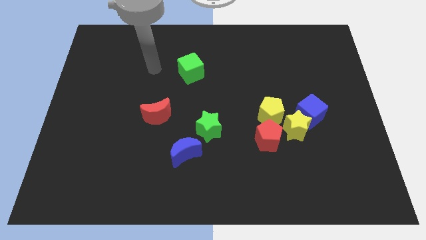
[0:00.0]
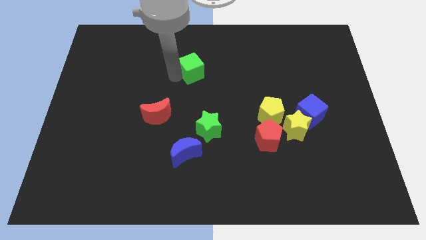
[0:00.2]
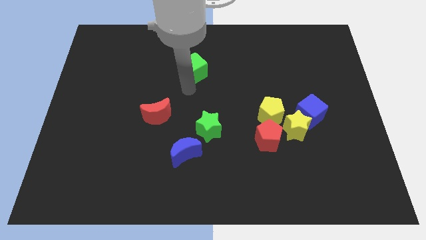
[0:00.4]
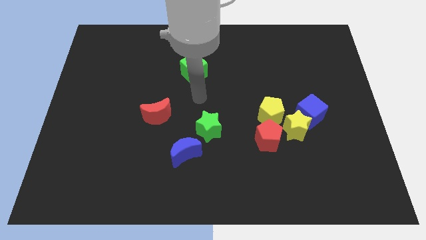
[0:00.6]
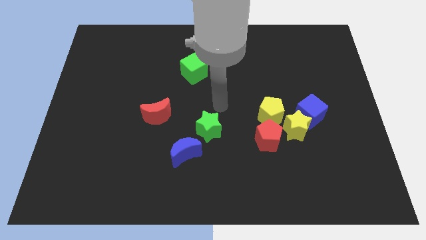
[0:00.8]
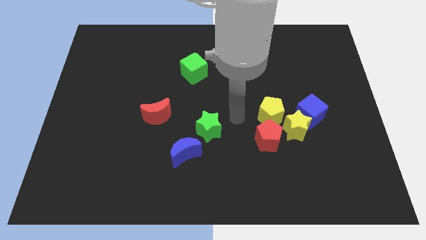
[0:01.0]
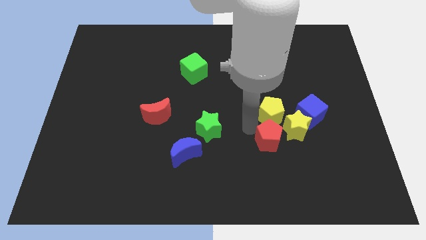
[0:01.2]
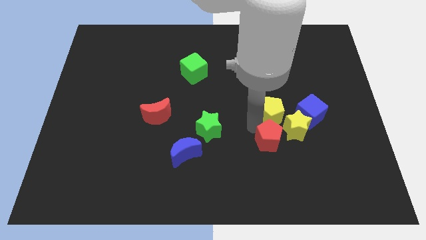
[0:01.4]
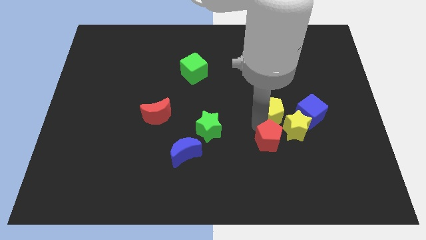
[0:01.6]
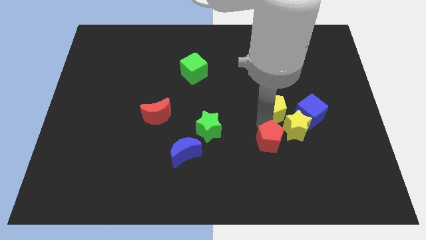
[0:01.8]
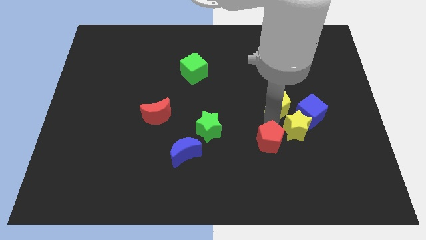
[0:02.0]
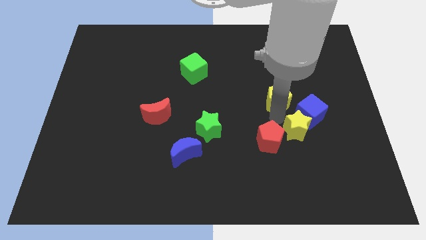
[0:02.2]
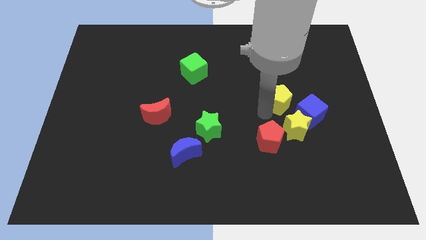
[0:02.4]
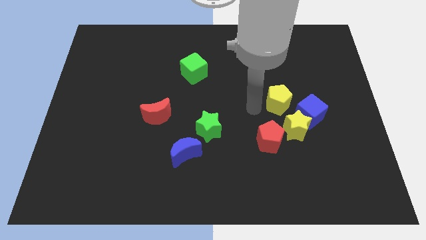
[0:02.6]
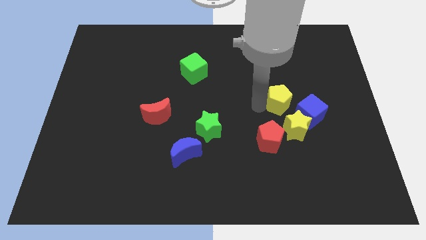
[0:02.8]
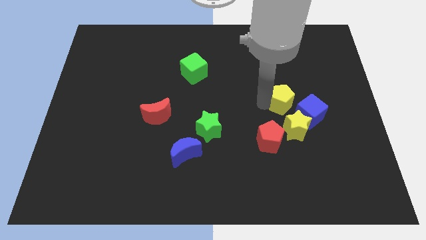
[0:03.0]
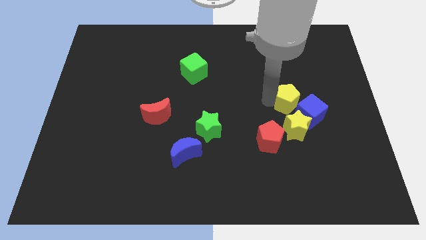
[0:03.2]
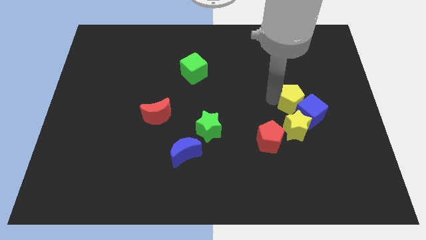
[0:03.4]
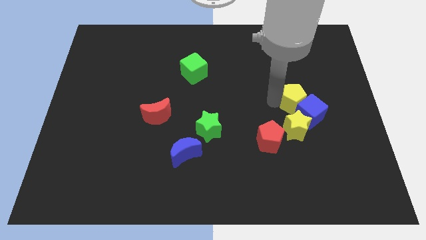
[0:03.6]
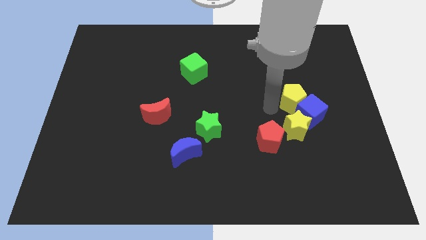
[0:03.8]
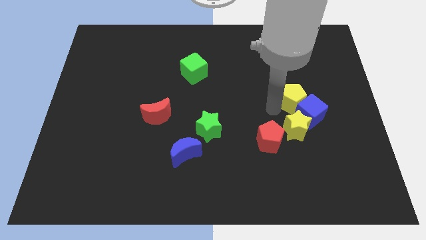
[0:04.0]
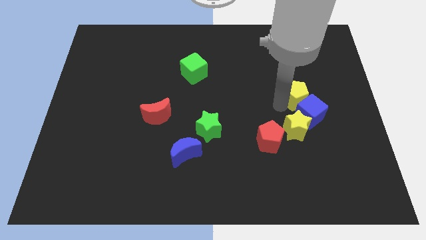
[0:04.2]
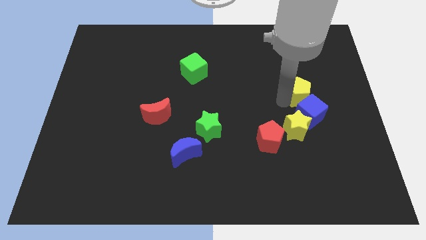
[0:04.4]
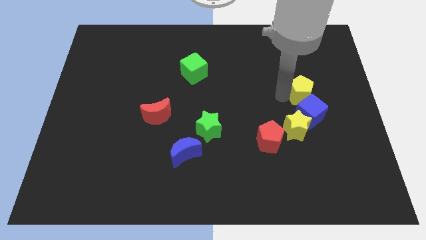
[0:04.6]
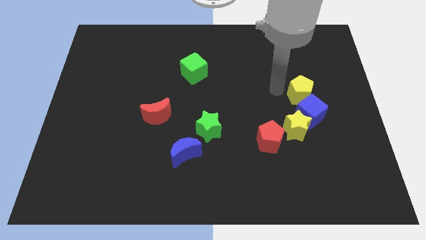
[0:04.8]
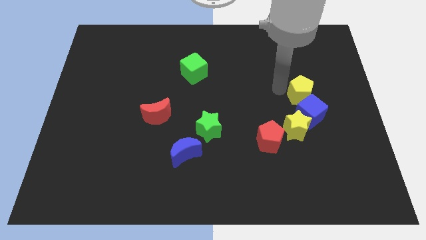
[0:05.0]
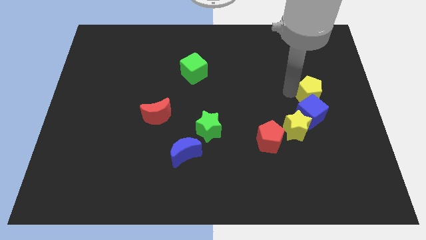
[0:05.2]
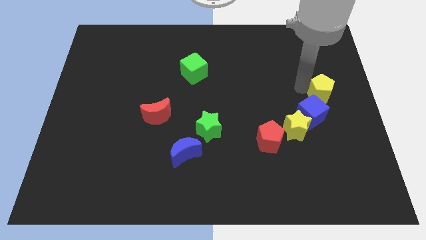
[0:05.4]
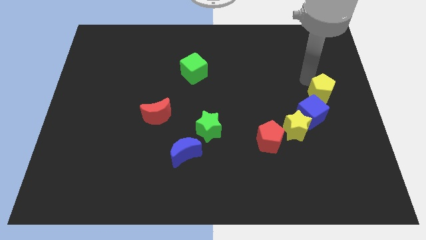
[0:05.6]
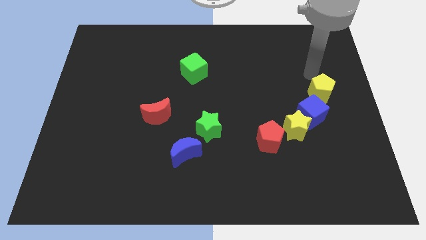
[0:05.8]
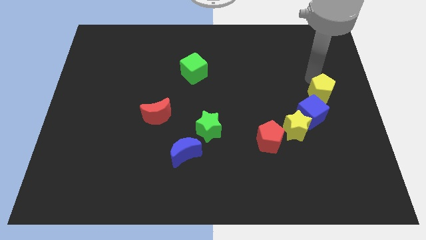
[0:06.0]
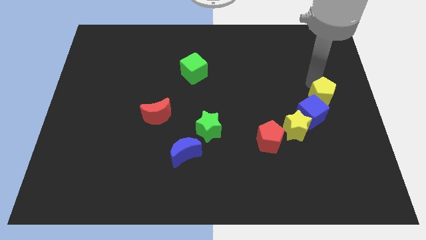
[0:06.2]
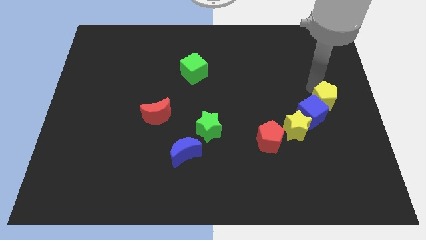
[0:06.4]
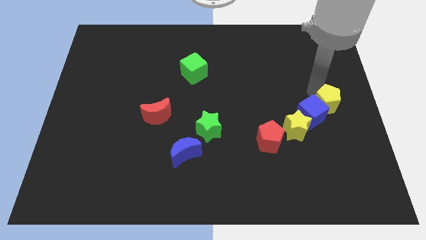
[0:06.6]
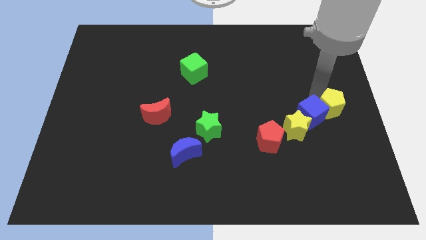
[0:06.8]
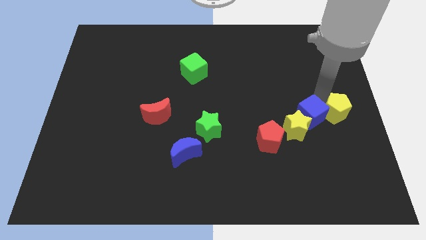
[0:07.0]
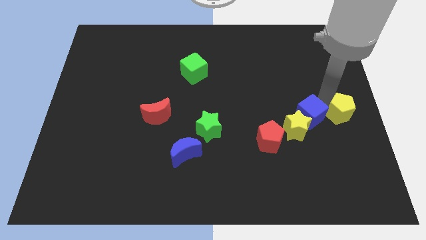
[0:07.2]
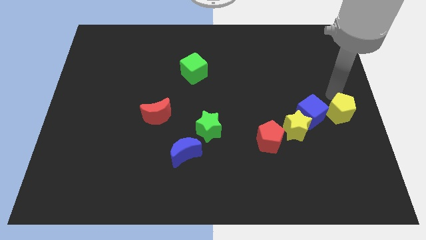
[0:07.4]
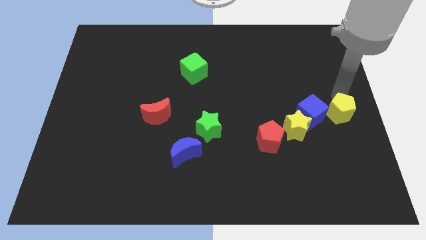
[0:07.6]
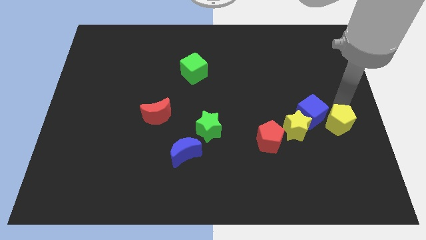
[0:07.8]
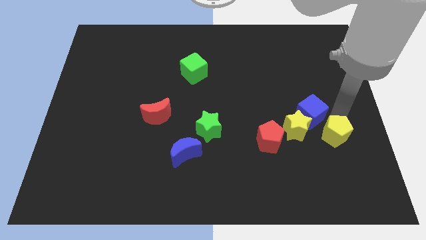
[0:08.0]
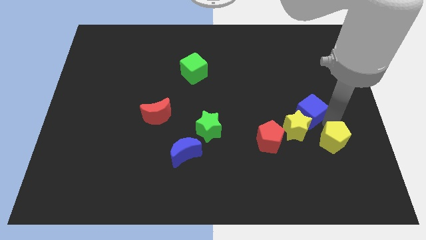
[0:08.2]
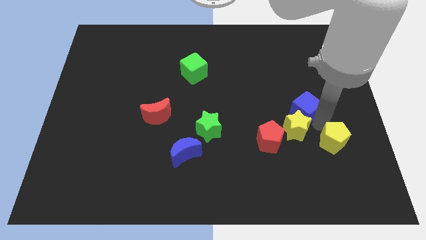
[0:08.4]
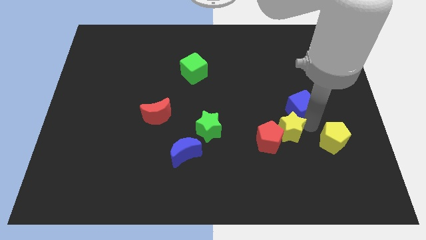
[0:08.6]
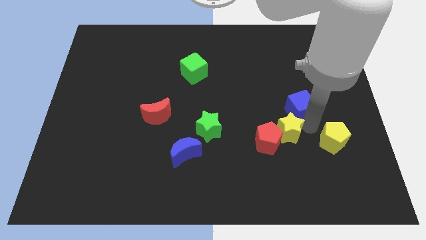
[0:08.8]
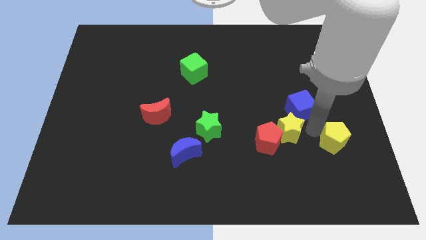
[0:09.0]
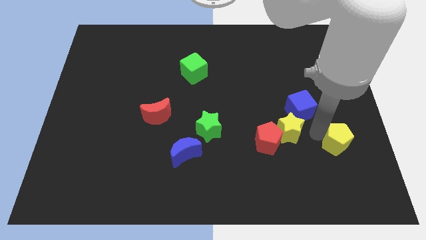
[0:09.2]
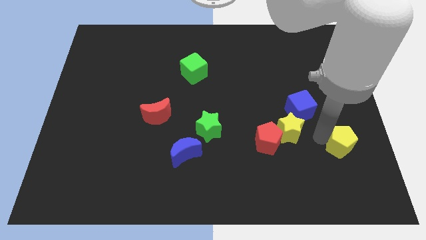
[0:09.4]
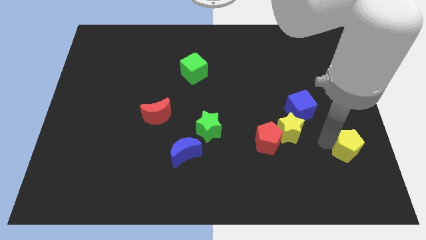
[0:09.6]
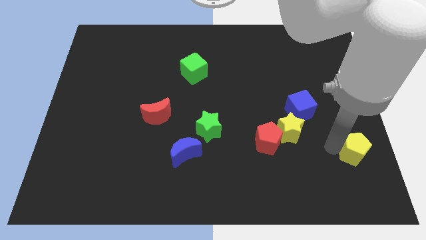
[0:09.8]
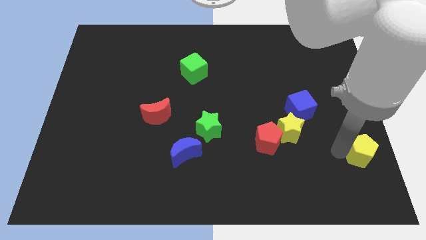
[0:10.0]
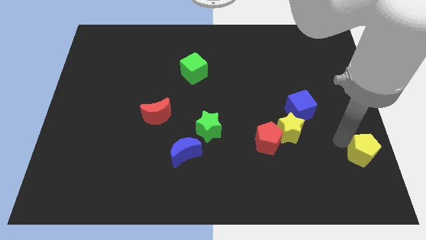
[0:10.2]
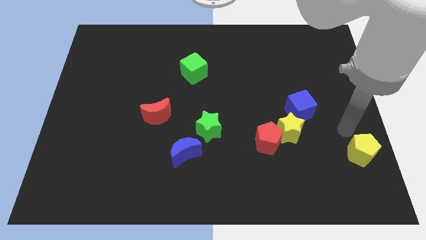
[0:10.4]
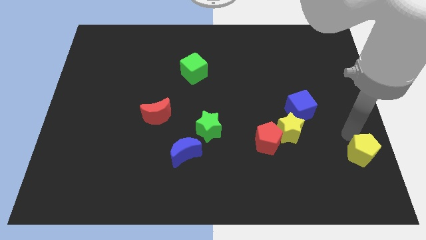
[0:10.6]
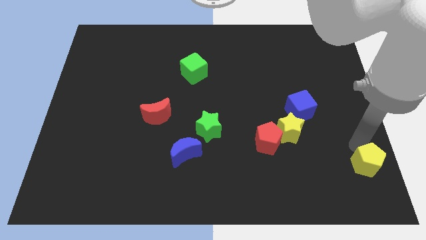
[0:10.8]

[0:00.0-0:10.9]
move the yellow pentagon to the lower right corner

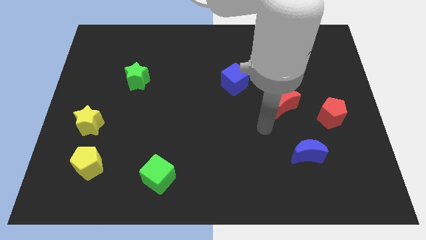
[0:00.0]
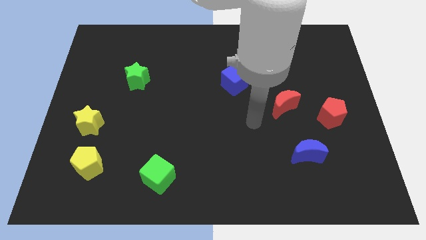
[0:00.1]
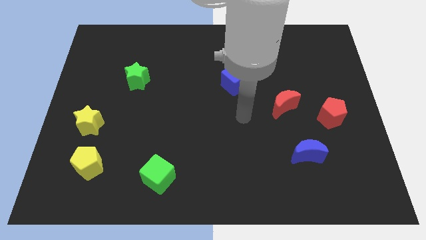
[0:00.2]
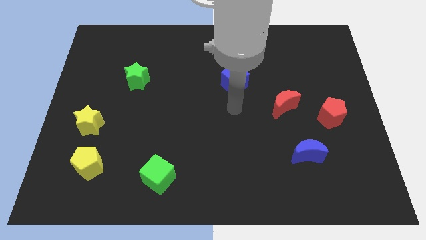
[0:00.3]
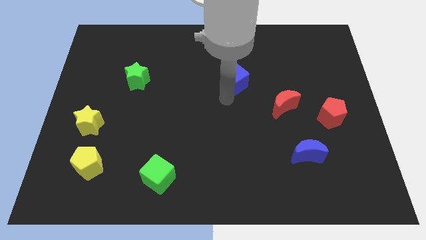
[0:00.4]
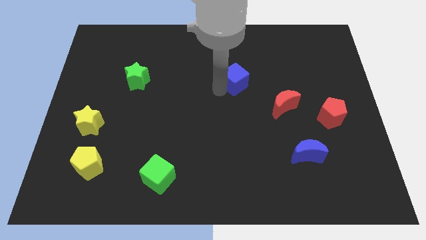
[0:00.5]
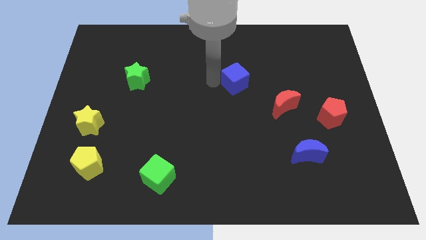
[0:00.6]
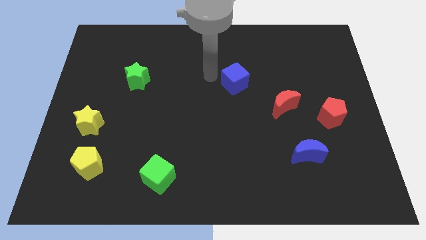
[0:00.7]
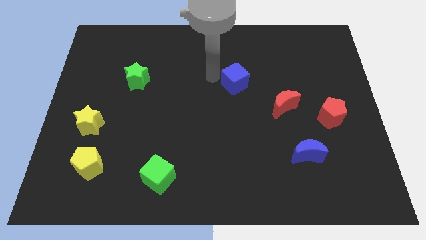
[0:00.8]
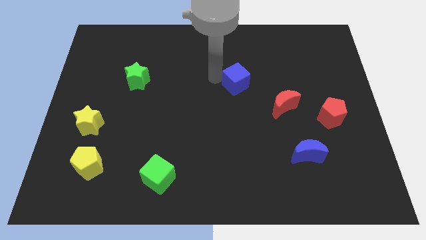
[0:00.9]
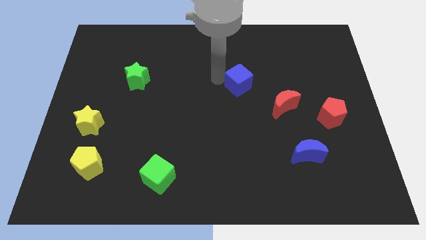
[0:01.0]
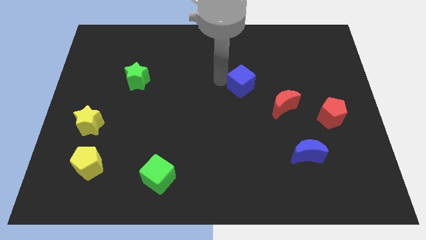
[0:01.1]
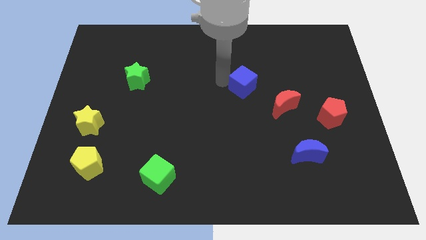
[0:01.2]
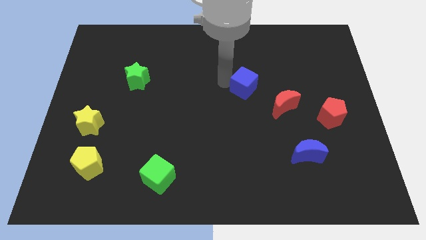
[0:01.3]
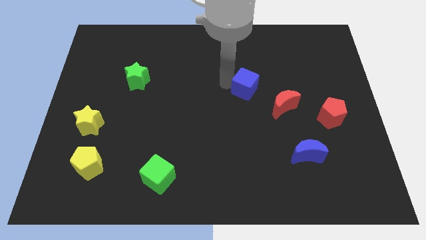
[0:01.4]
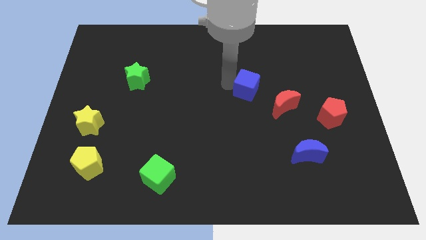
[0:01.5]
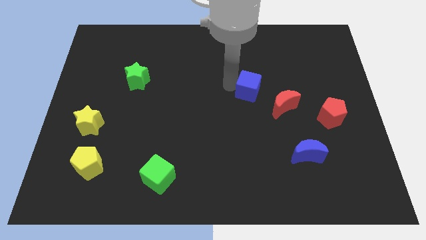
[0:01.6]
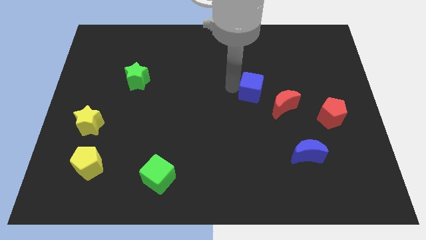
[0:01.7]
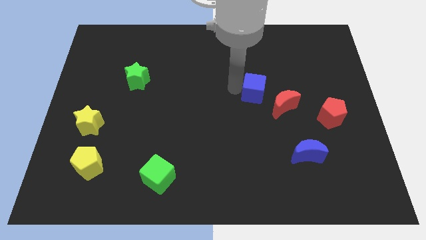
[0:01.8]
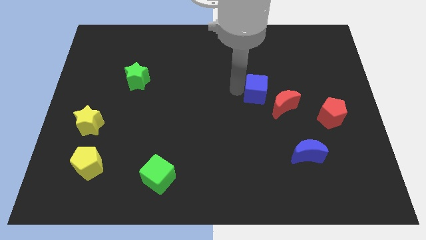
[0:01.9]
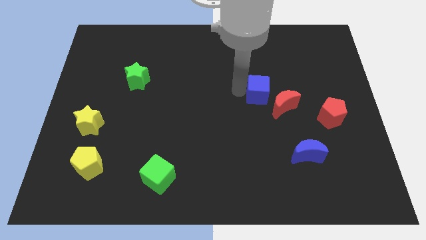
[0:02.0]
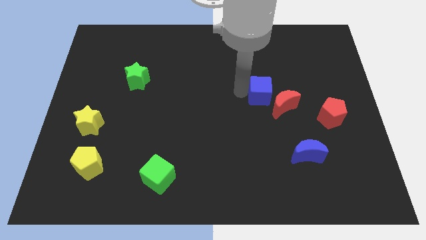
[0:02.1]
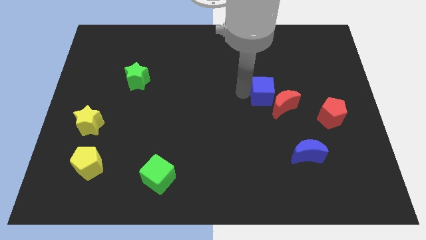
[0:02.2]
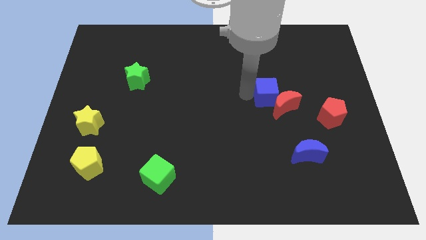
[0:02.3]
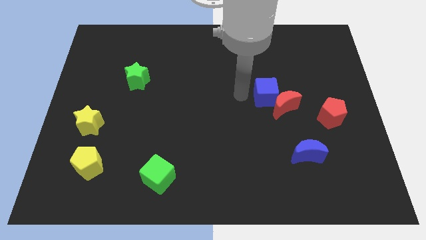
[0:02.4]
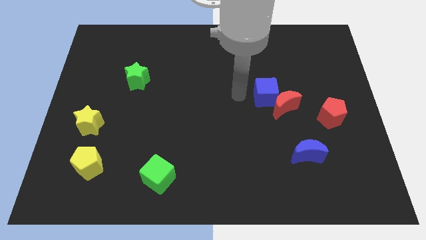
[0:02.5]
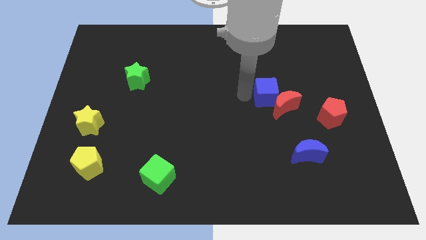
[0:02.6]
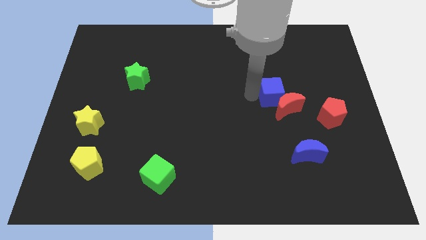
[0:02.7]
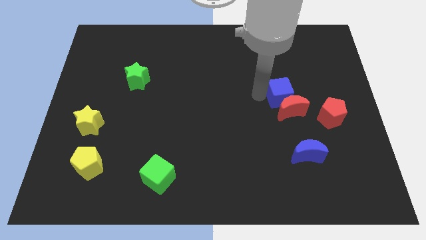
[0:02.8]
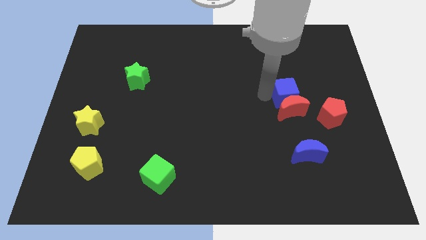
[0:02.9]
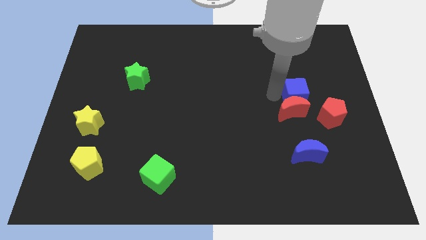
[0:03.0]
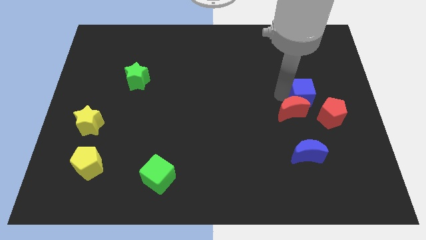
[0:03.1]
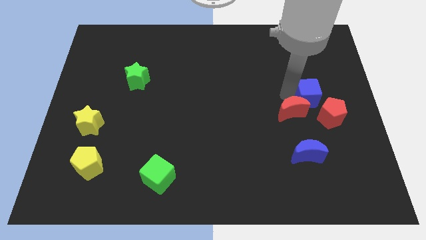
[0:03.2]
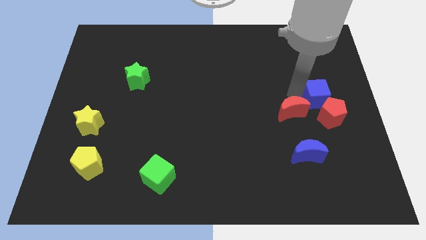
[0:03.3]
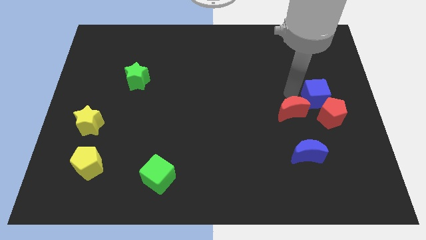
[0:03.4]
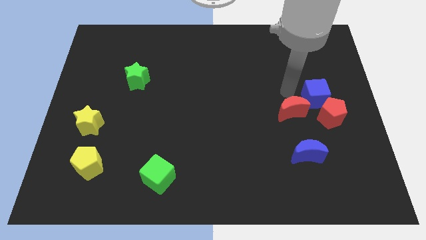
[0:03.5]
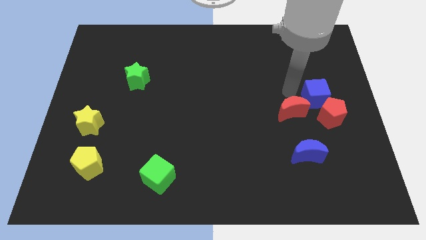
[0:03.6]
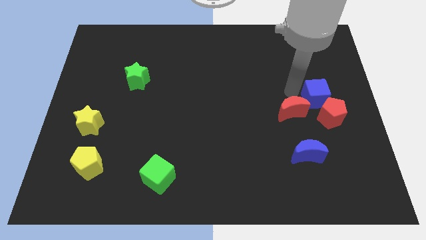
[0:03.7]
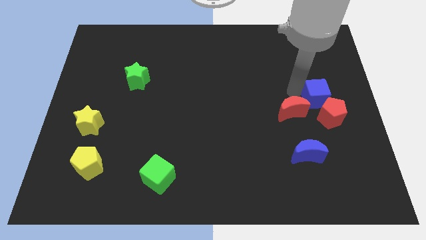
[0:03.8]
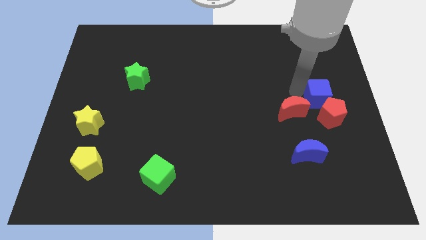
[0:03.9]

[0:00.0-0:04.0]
slide the blue cube to the right side of the board
